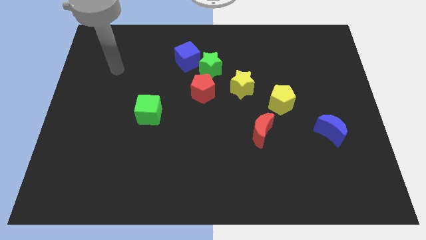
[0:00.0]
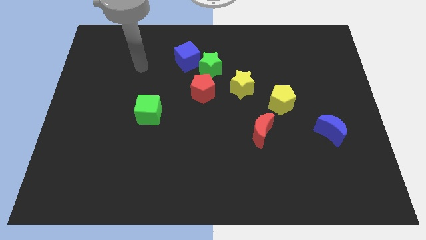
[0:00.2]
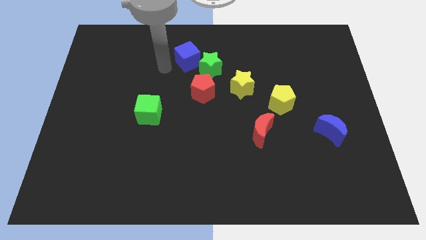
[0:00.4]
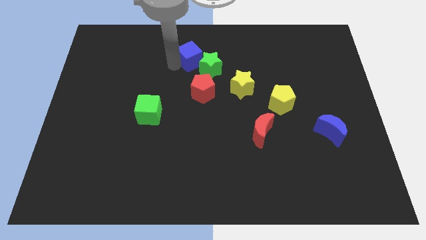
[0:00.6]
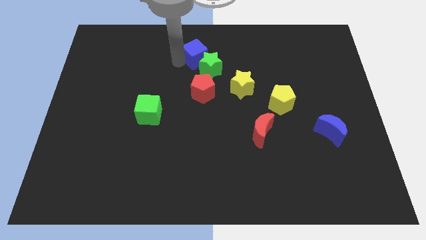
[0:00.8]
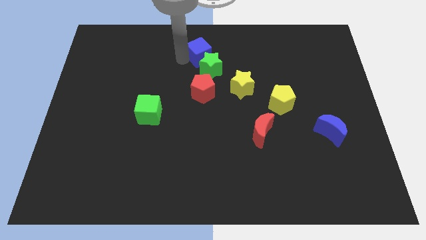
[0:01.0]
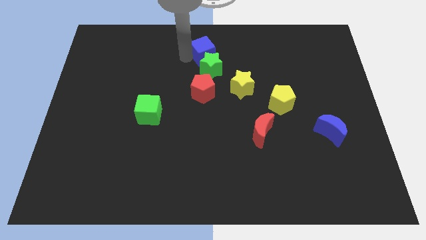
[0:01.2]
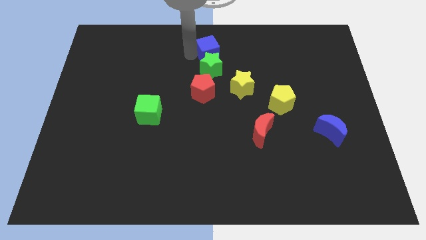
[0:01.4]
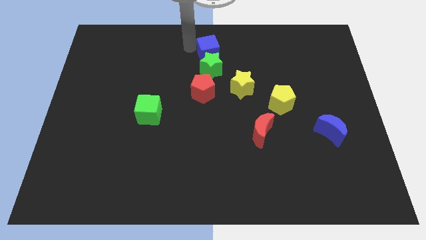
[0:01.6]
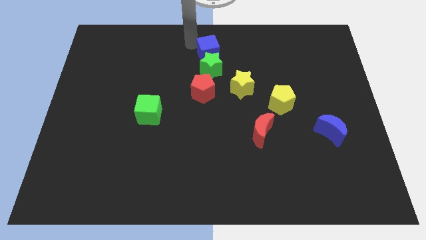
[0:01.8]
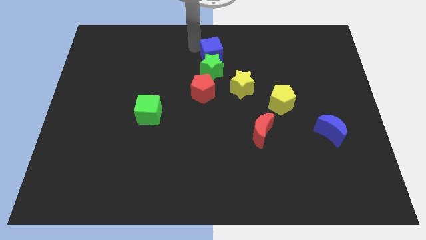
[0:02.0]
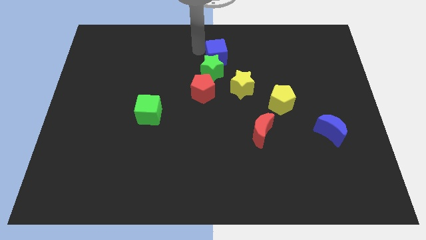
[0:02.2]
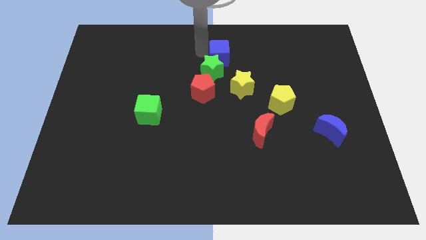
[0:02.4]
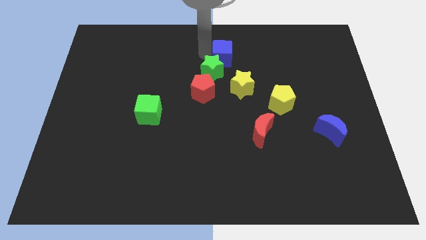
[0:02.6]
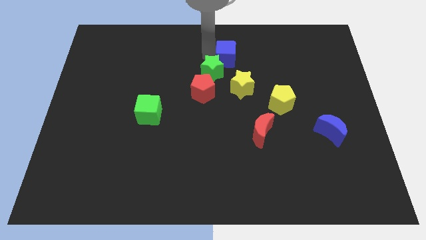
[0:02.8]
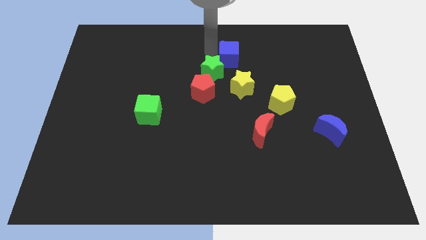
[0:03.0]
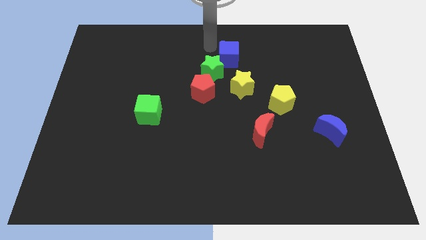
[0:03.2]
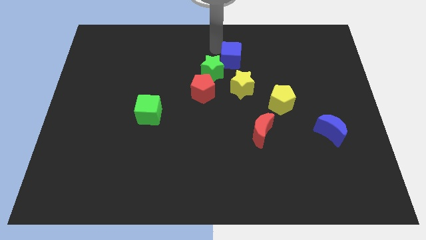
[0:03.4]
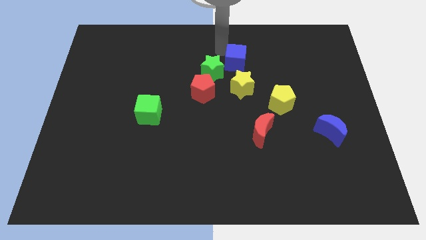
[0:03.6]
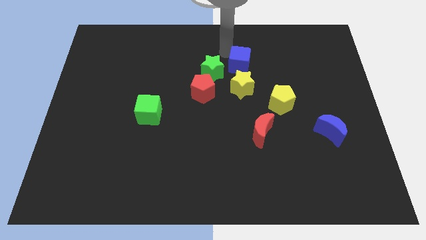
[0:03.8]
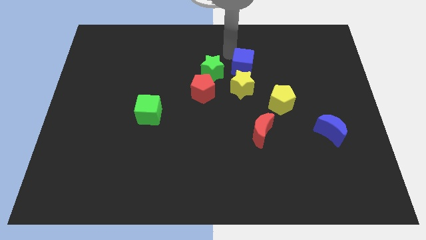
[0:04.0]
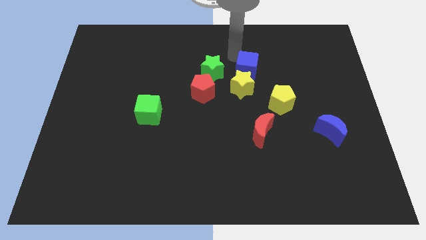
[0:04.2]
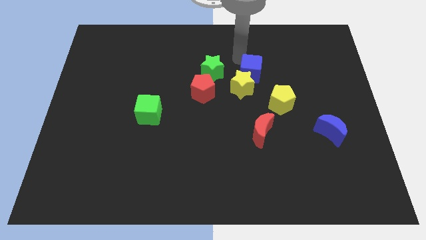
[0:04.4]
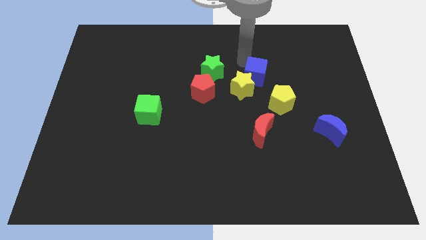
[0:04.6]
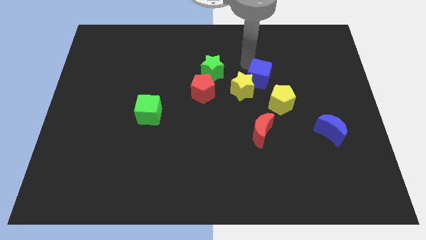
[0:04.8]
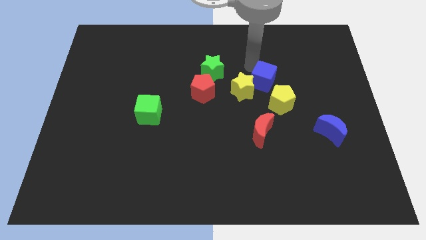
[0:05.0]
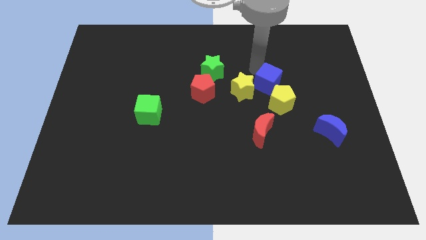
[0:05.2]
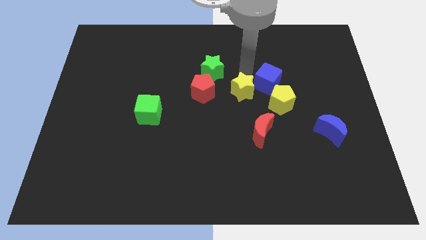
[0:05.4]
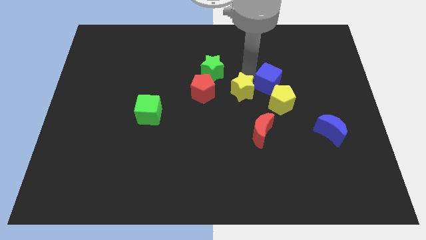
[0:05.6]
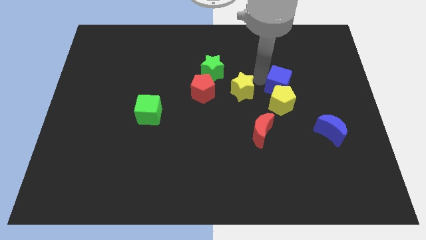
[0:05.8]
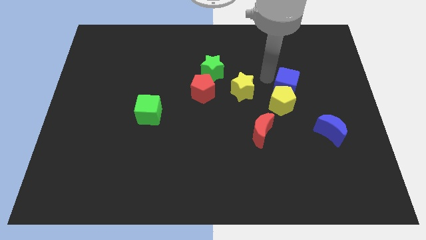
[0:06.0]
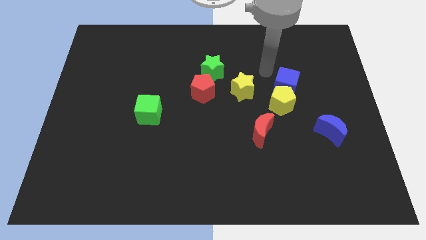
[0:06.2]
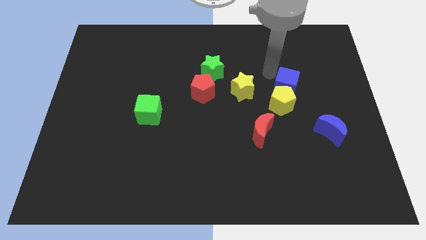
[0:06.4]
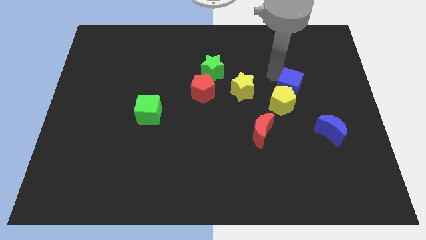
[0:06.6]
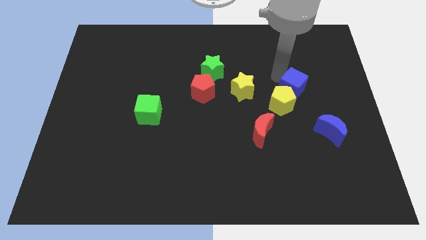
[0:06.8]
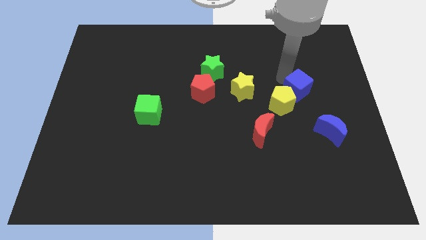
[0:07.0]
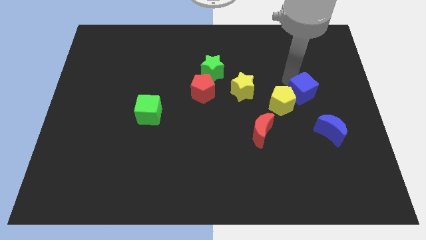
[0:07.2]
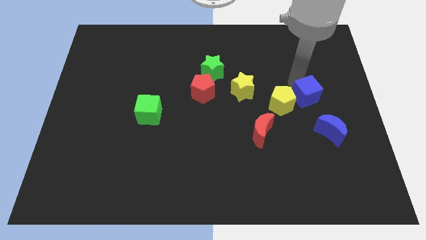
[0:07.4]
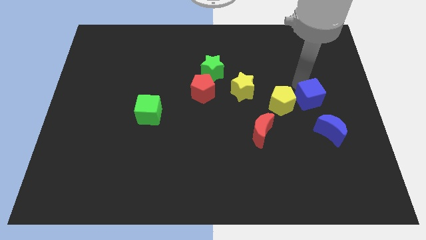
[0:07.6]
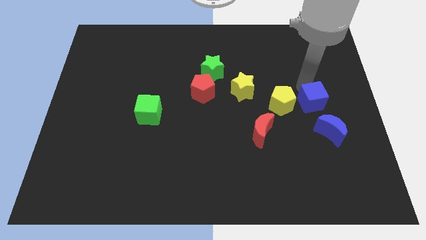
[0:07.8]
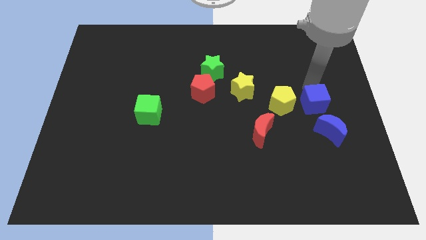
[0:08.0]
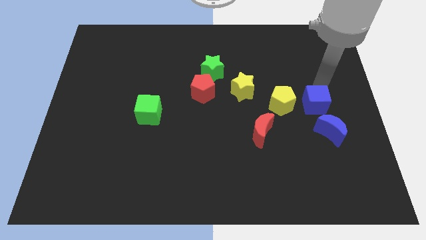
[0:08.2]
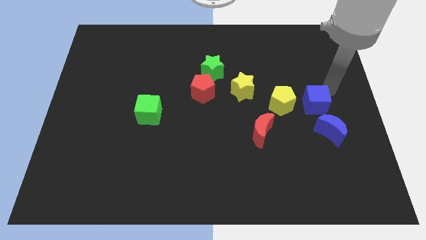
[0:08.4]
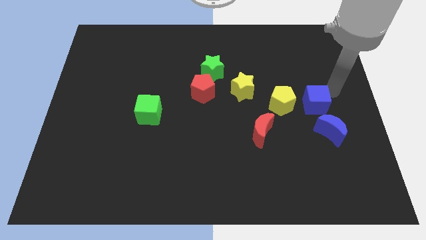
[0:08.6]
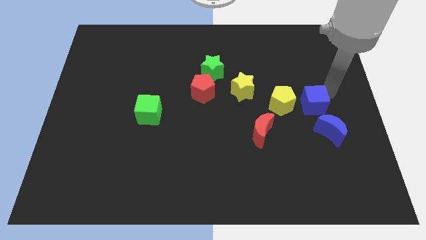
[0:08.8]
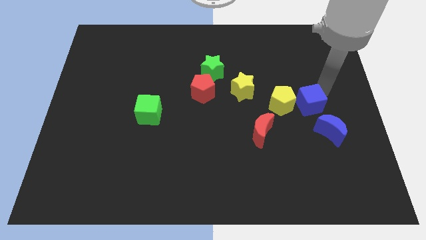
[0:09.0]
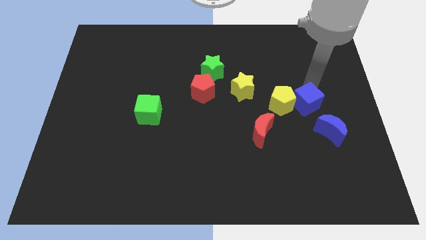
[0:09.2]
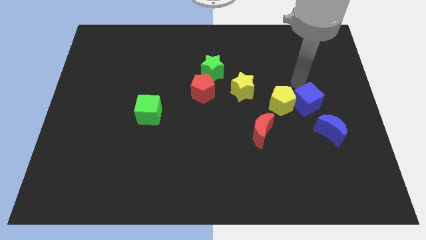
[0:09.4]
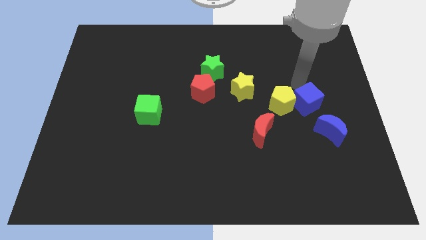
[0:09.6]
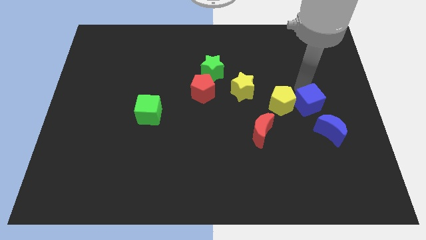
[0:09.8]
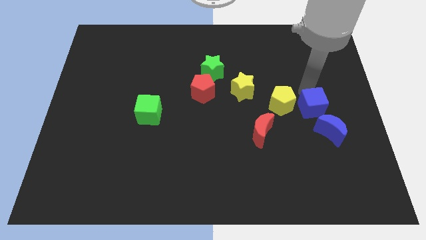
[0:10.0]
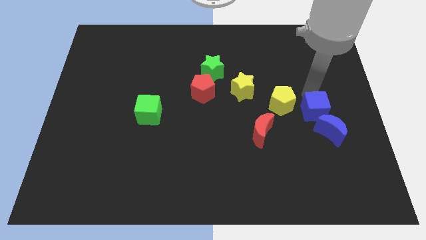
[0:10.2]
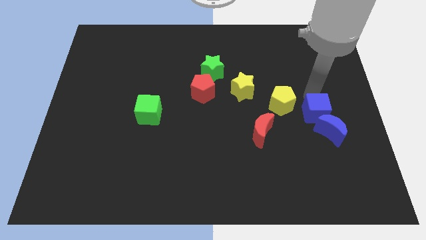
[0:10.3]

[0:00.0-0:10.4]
put the blue cube towards the blue moon

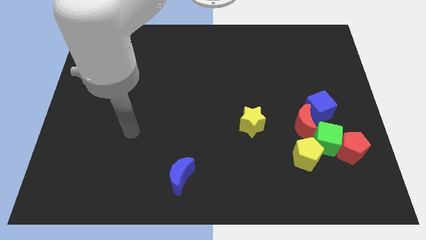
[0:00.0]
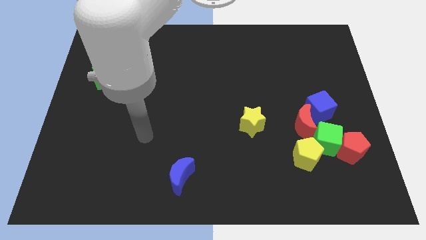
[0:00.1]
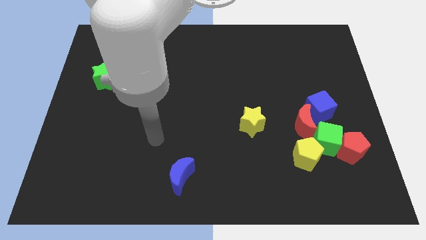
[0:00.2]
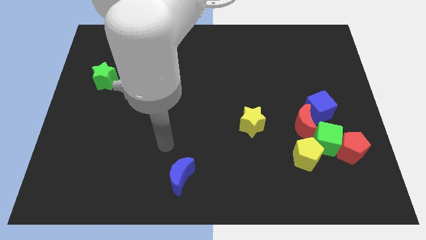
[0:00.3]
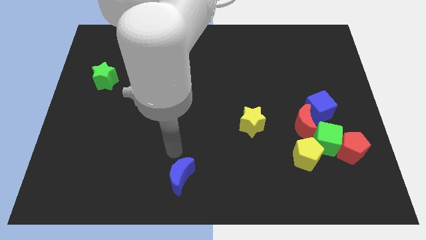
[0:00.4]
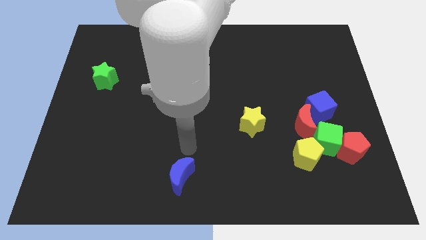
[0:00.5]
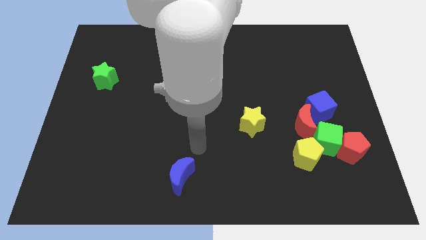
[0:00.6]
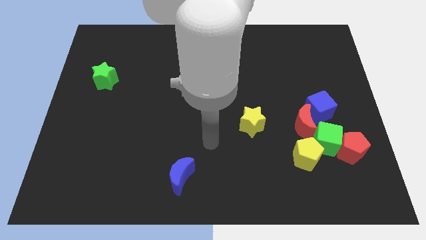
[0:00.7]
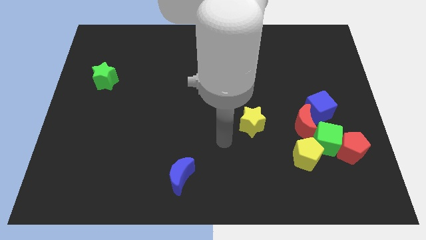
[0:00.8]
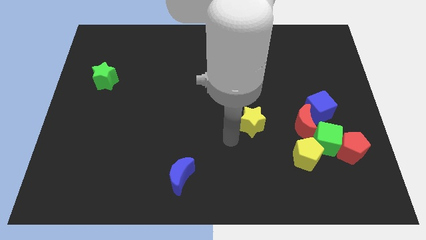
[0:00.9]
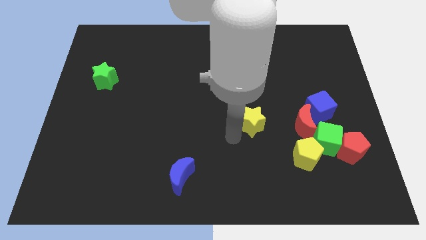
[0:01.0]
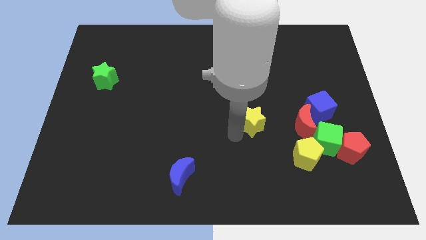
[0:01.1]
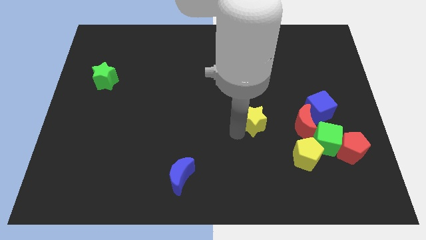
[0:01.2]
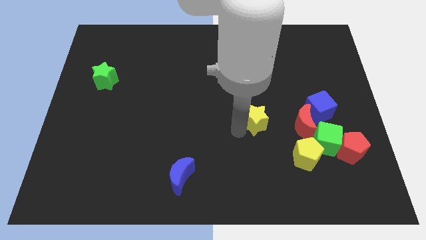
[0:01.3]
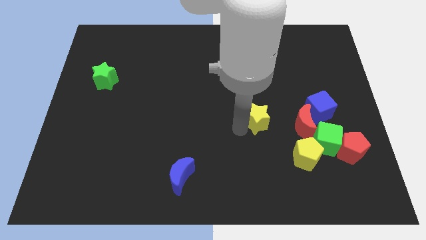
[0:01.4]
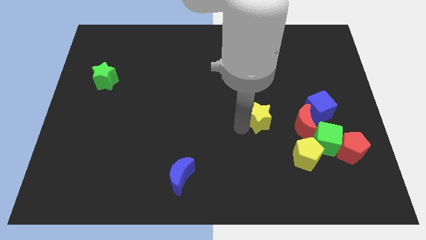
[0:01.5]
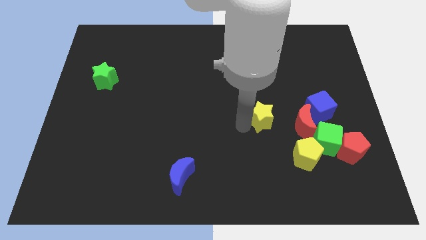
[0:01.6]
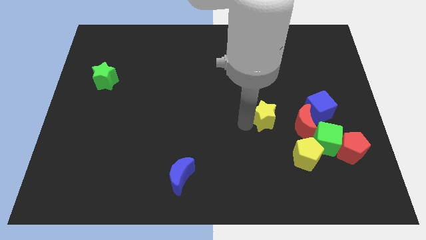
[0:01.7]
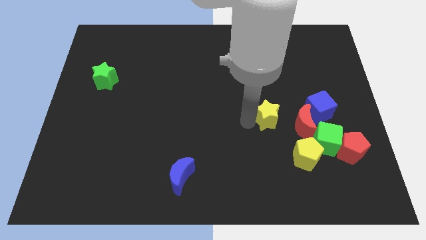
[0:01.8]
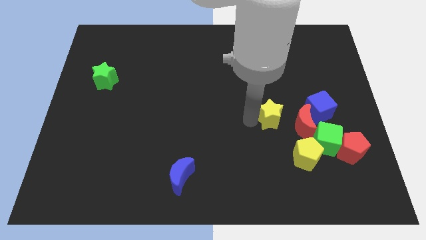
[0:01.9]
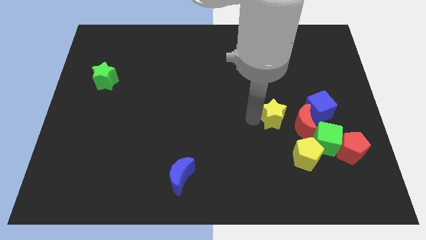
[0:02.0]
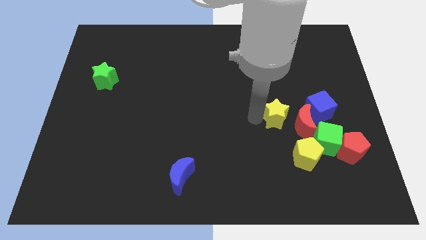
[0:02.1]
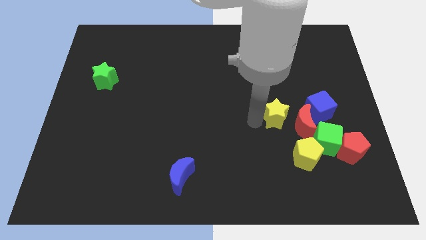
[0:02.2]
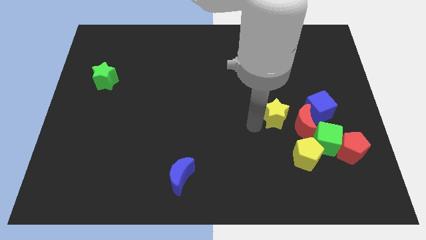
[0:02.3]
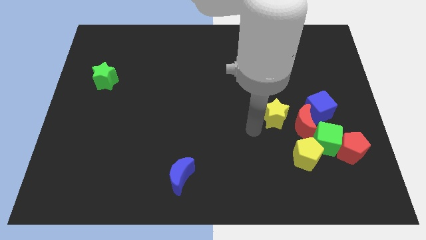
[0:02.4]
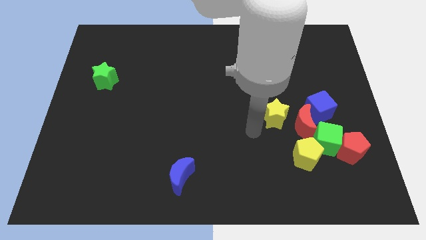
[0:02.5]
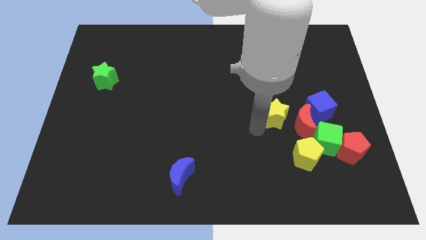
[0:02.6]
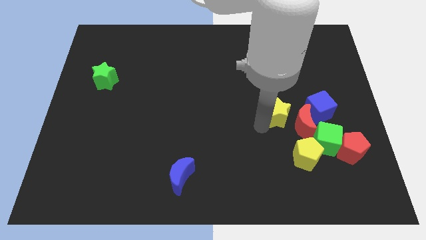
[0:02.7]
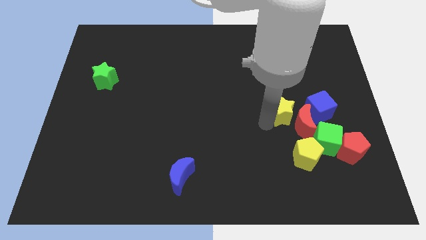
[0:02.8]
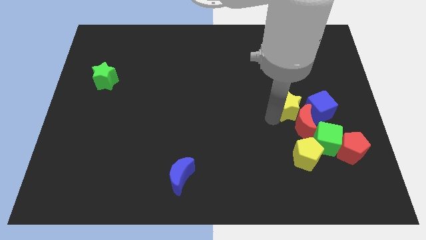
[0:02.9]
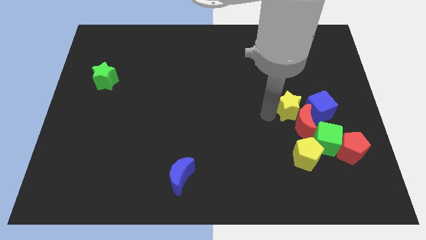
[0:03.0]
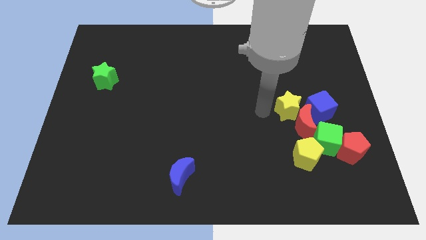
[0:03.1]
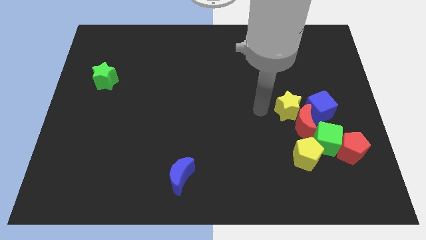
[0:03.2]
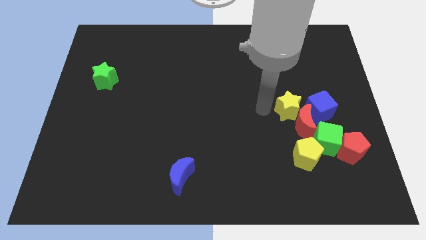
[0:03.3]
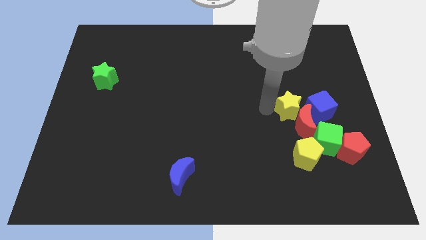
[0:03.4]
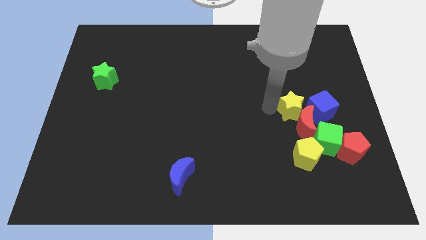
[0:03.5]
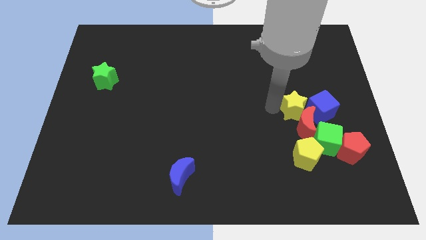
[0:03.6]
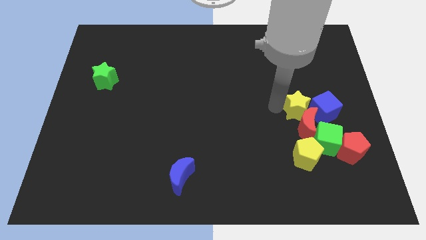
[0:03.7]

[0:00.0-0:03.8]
put the yellow star close to the blue cube
